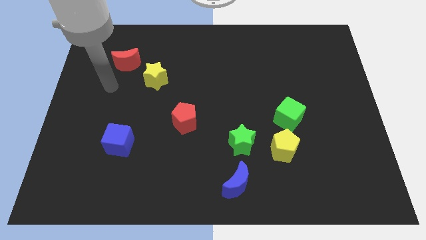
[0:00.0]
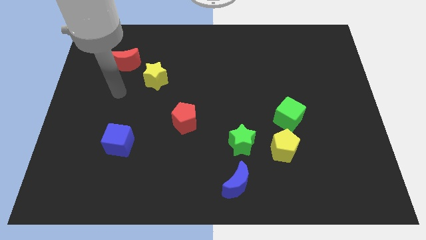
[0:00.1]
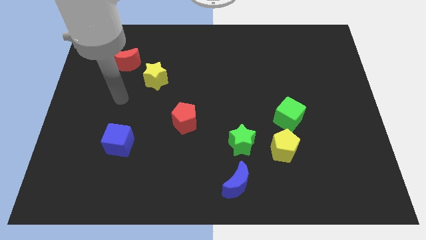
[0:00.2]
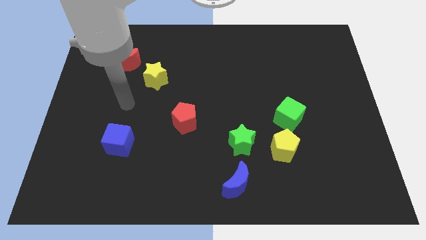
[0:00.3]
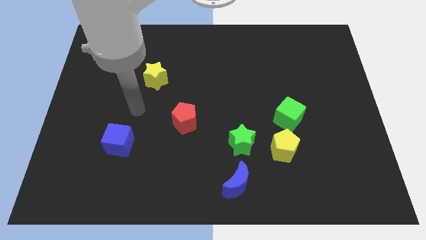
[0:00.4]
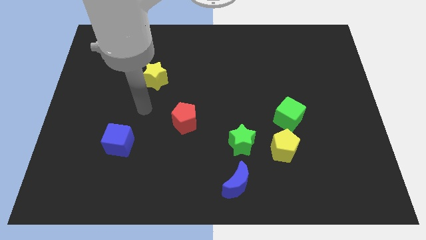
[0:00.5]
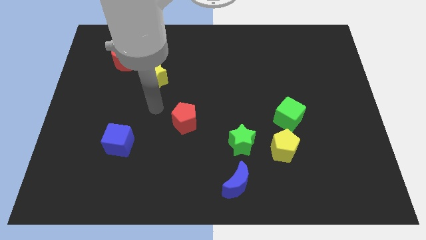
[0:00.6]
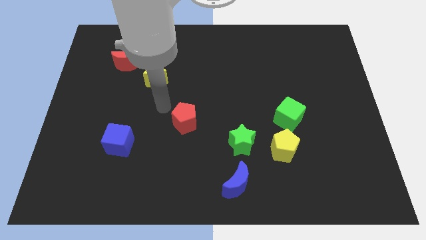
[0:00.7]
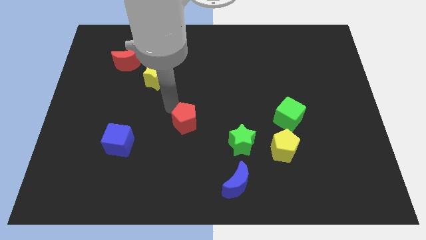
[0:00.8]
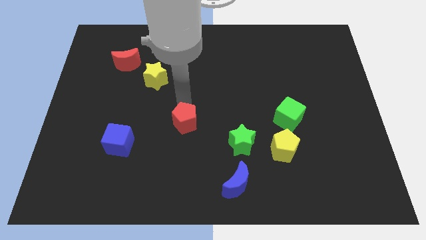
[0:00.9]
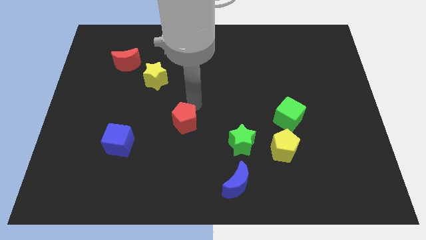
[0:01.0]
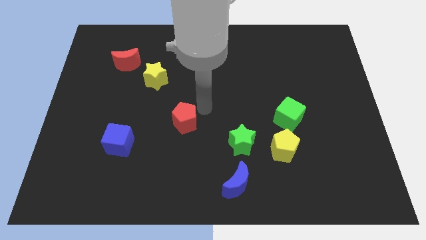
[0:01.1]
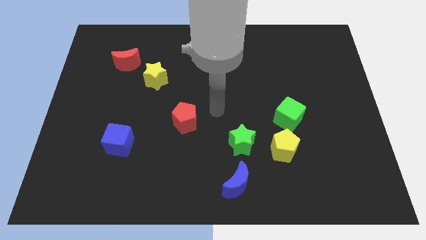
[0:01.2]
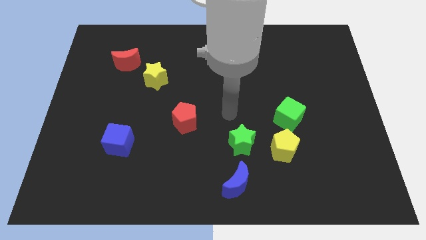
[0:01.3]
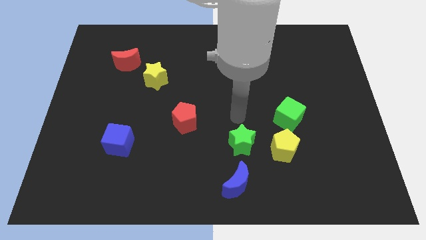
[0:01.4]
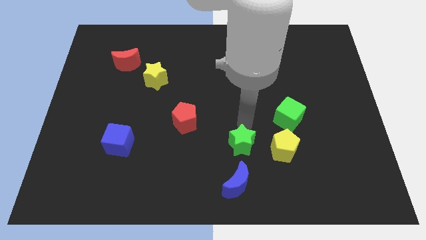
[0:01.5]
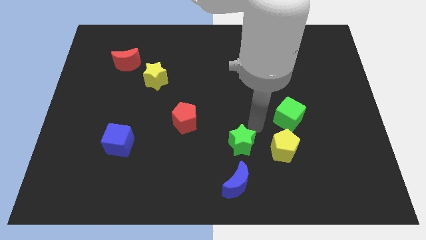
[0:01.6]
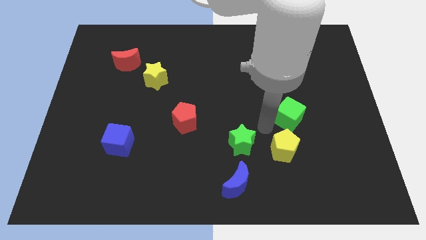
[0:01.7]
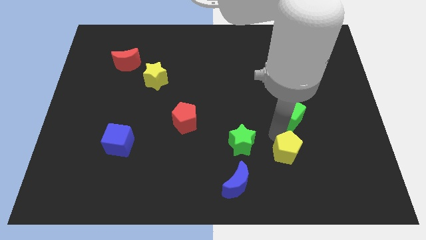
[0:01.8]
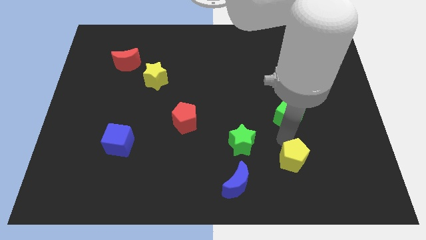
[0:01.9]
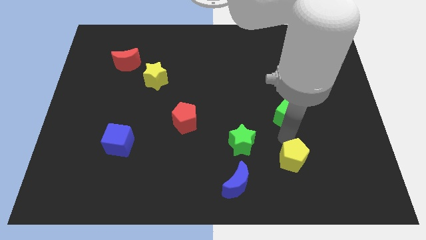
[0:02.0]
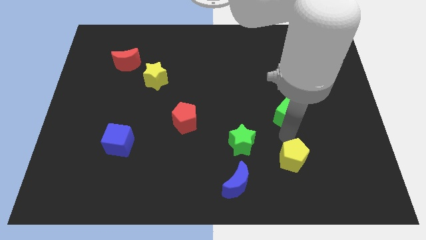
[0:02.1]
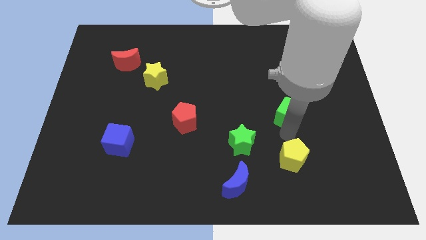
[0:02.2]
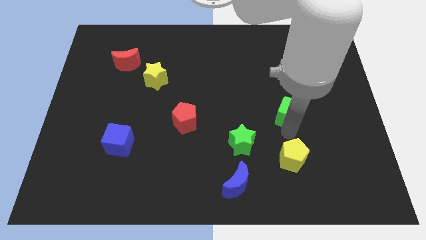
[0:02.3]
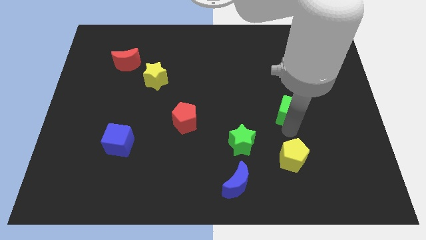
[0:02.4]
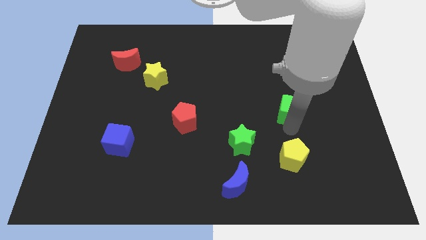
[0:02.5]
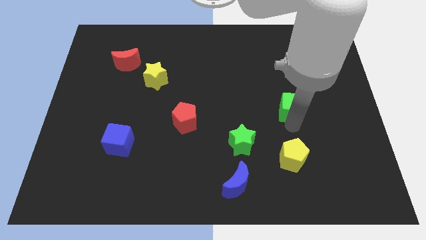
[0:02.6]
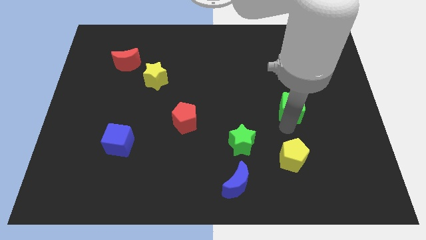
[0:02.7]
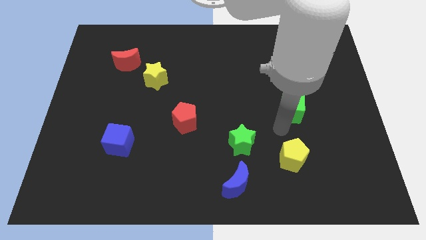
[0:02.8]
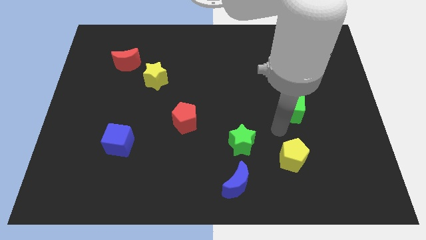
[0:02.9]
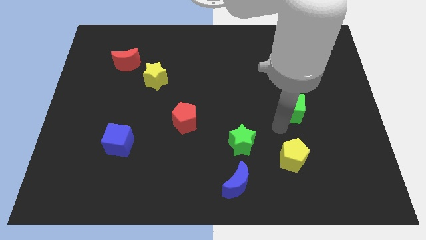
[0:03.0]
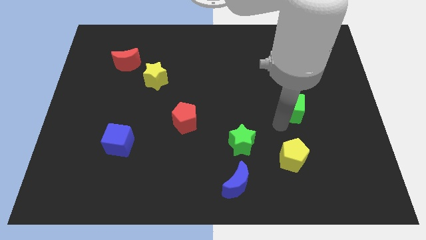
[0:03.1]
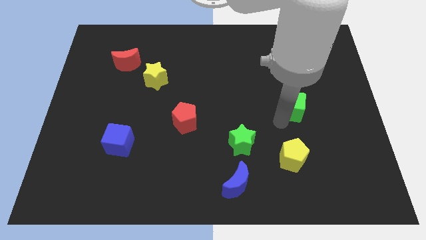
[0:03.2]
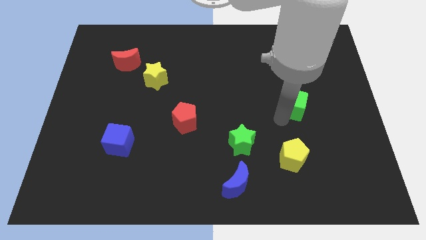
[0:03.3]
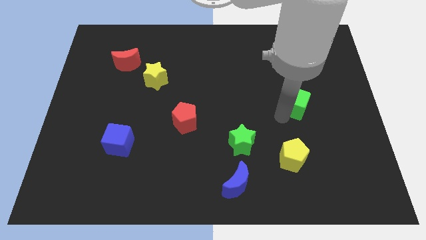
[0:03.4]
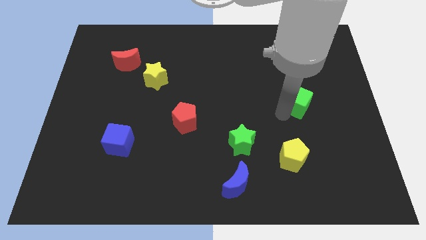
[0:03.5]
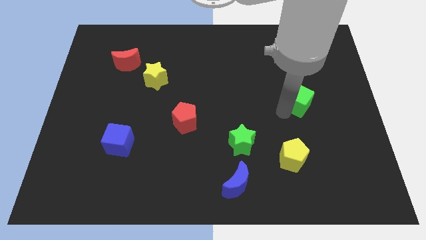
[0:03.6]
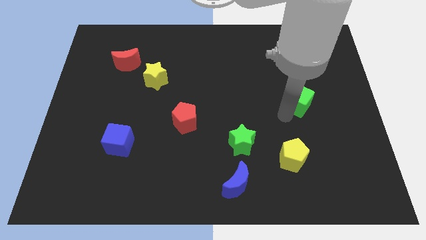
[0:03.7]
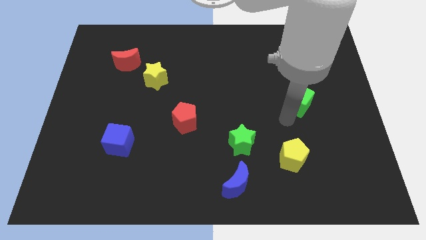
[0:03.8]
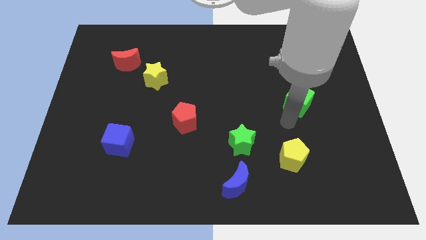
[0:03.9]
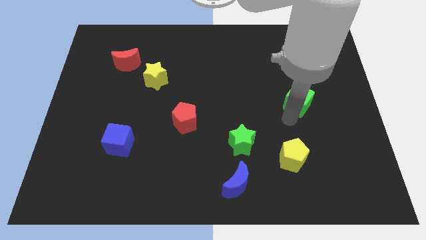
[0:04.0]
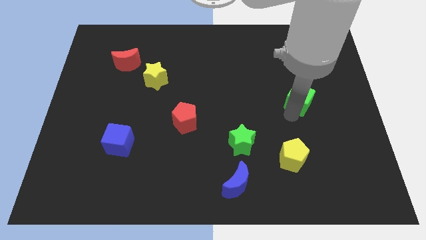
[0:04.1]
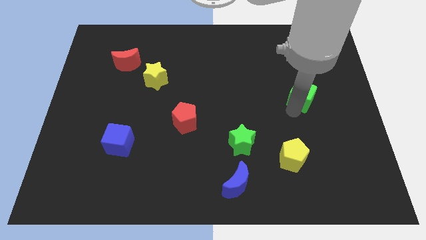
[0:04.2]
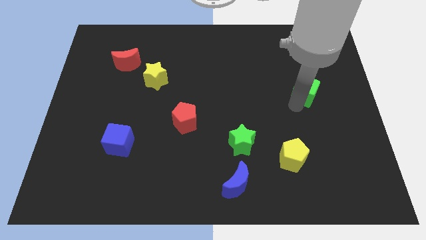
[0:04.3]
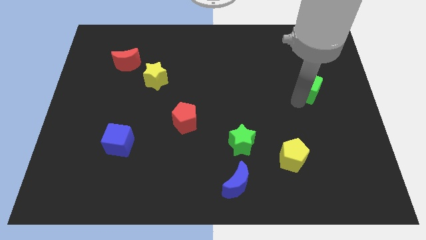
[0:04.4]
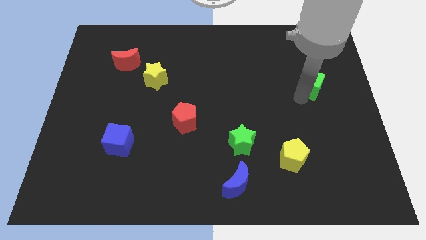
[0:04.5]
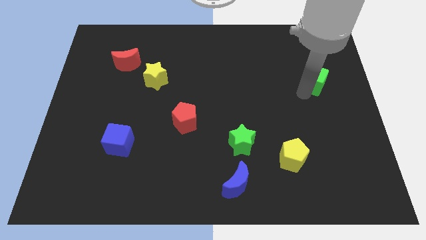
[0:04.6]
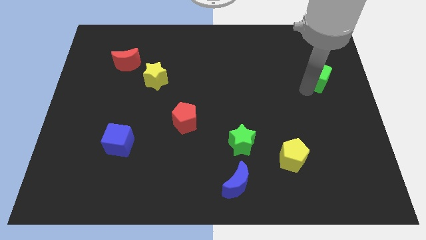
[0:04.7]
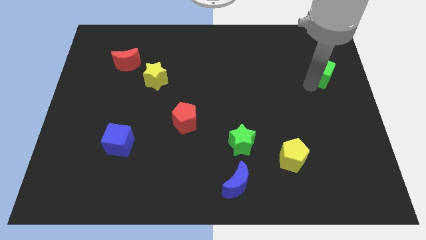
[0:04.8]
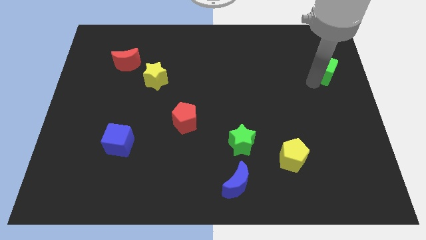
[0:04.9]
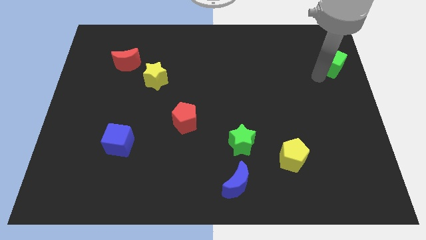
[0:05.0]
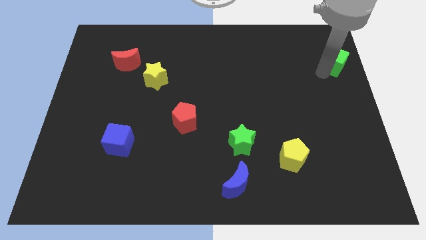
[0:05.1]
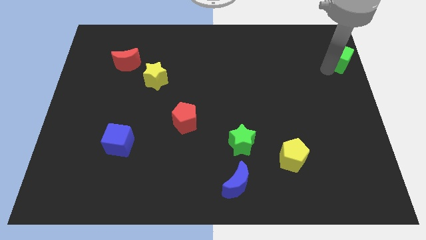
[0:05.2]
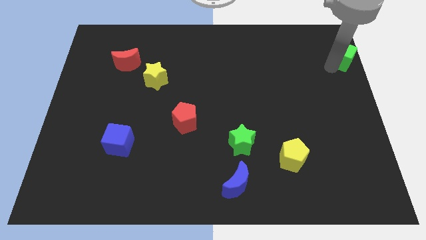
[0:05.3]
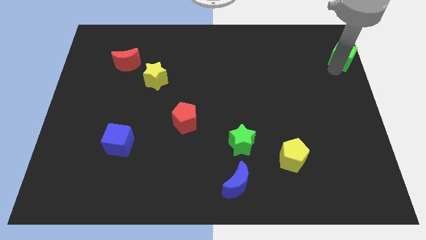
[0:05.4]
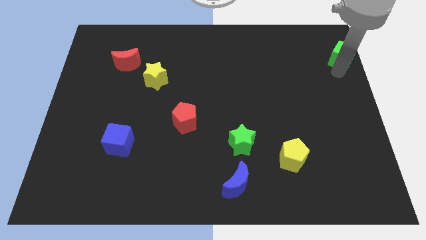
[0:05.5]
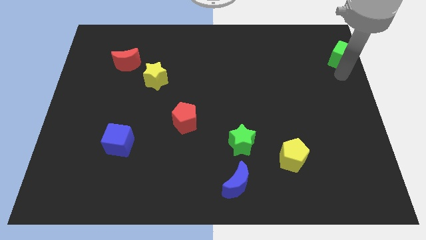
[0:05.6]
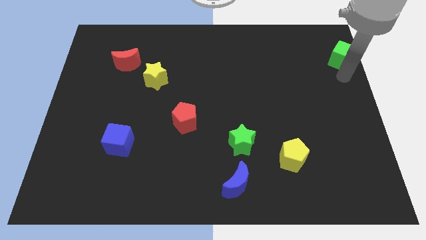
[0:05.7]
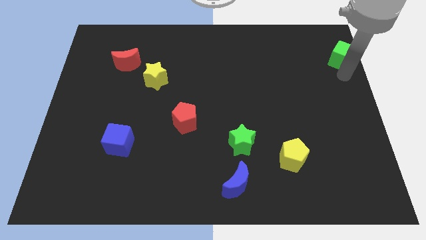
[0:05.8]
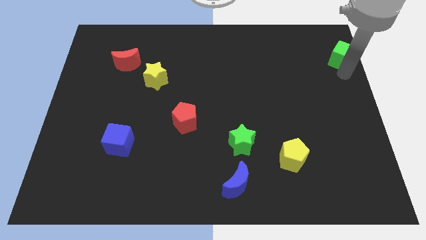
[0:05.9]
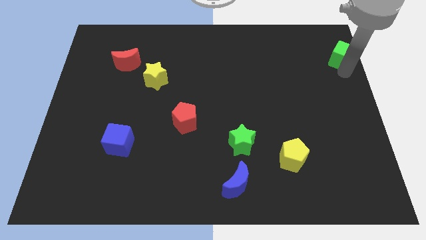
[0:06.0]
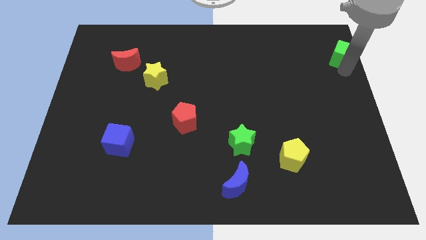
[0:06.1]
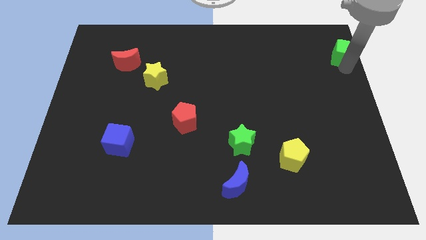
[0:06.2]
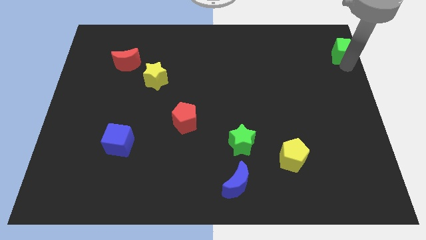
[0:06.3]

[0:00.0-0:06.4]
push the green cube to the top right corner

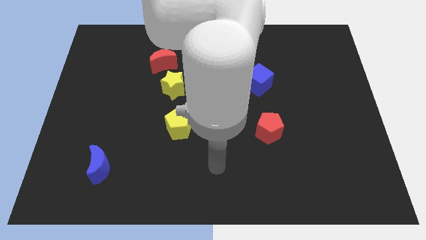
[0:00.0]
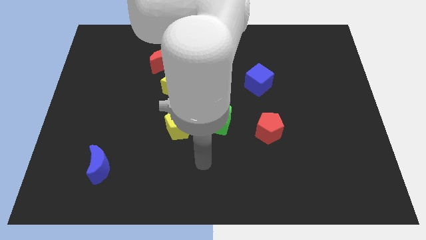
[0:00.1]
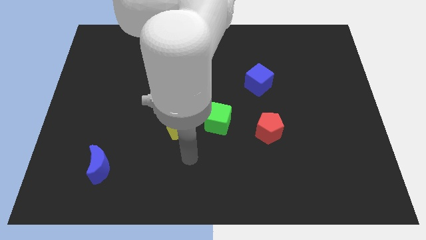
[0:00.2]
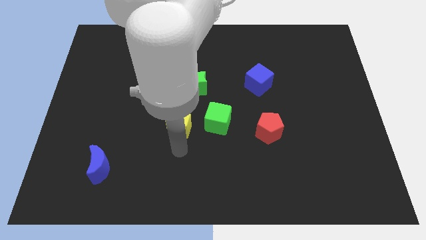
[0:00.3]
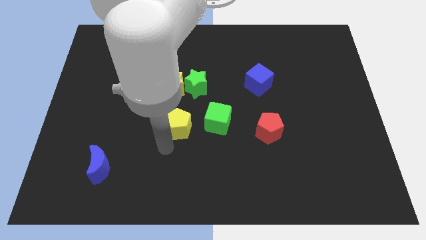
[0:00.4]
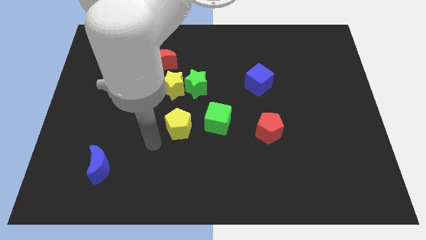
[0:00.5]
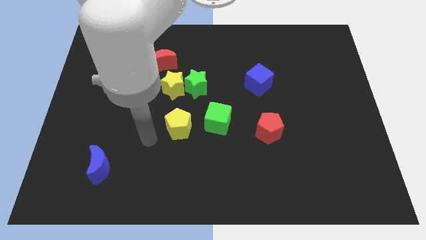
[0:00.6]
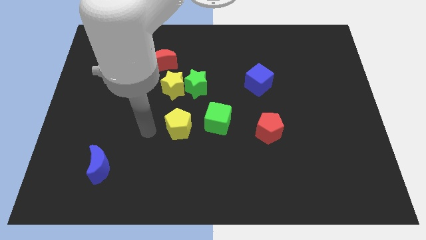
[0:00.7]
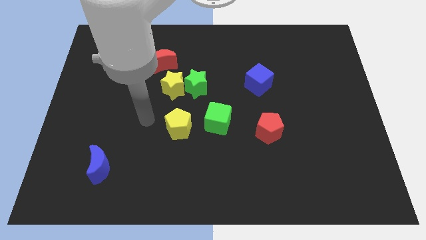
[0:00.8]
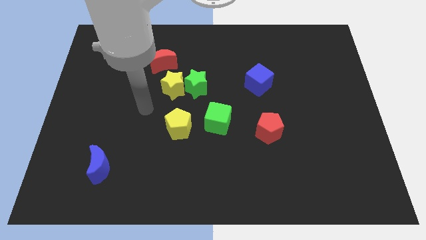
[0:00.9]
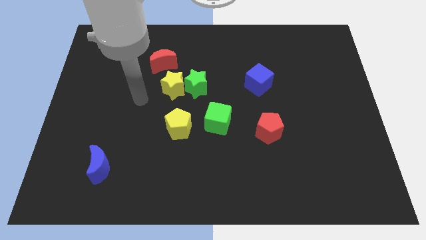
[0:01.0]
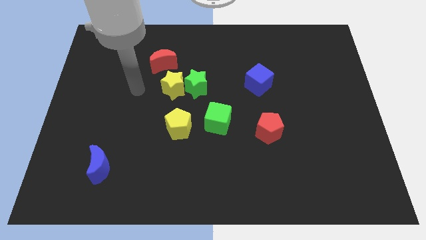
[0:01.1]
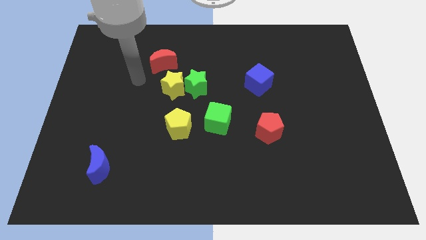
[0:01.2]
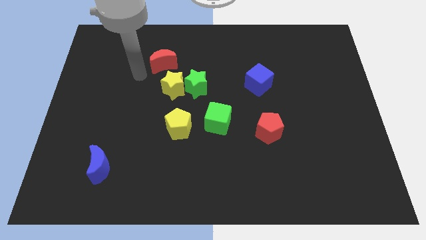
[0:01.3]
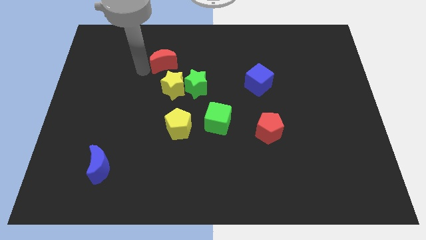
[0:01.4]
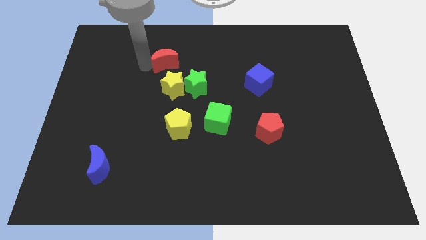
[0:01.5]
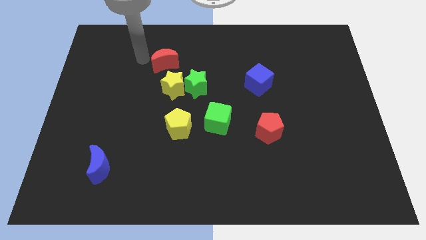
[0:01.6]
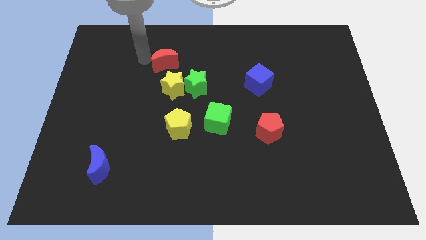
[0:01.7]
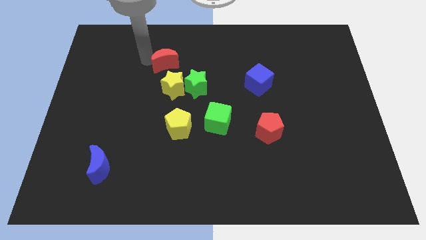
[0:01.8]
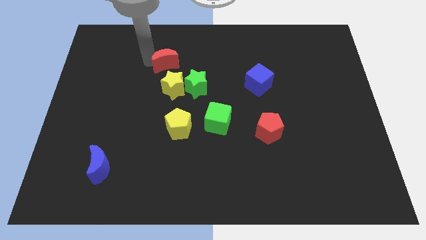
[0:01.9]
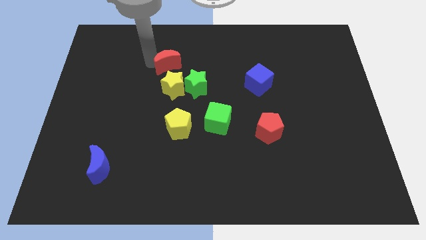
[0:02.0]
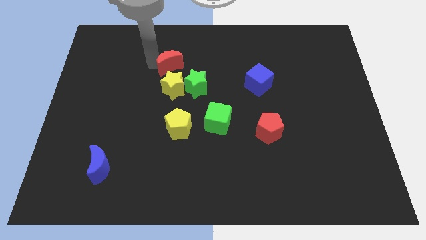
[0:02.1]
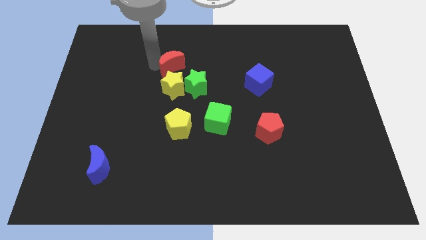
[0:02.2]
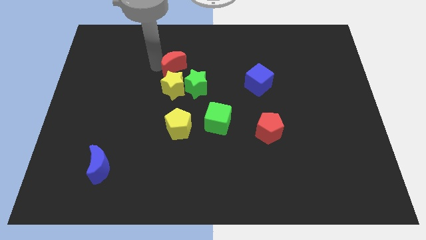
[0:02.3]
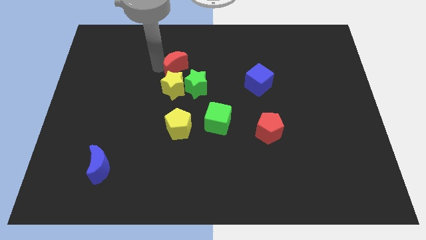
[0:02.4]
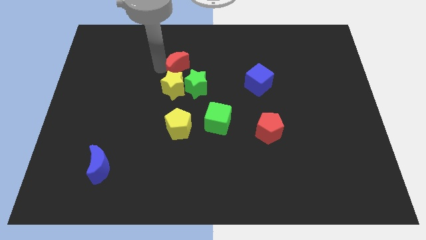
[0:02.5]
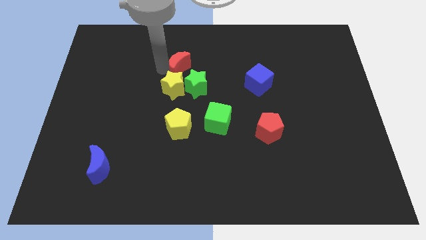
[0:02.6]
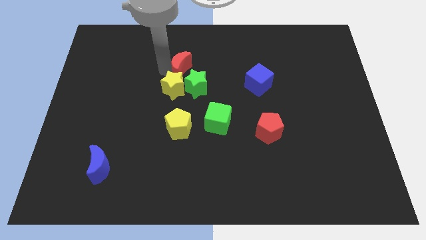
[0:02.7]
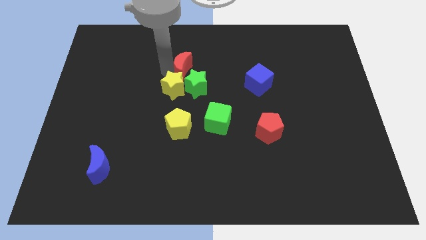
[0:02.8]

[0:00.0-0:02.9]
put the red moon to the center of the board
